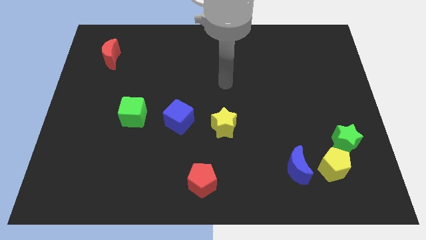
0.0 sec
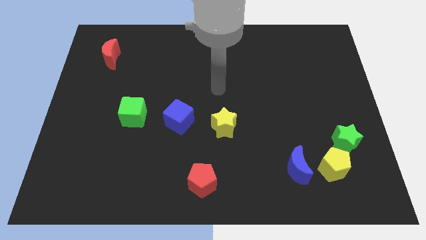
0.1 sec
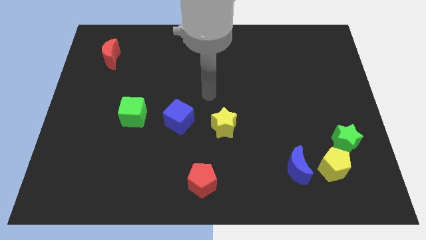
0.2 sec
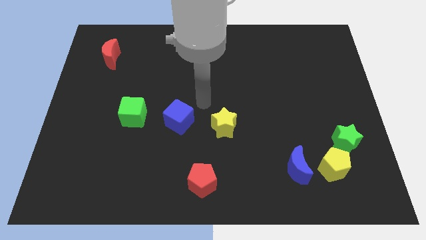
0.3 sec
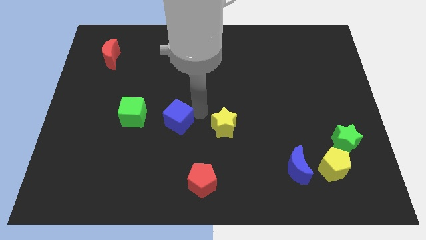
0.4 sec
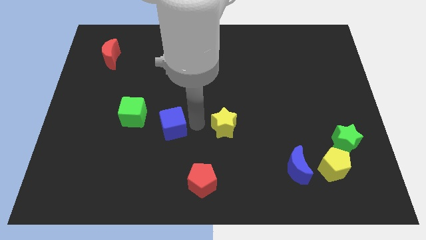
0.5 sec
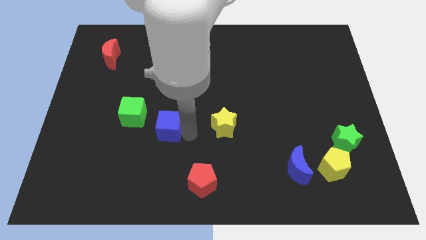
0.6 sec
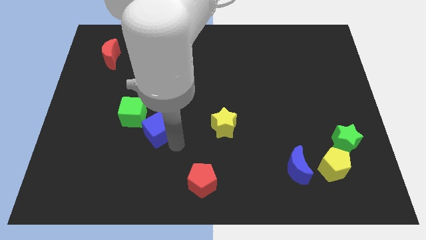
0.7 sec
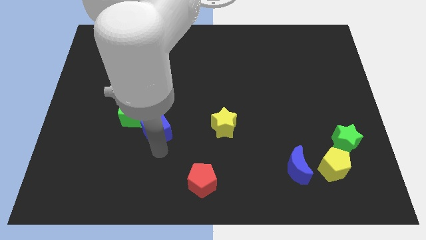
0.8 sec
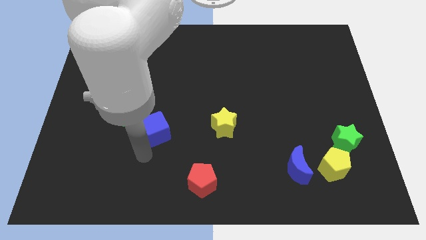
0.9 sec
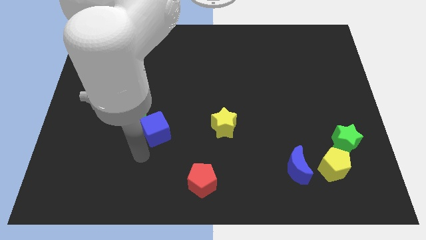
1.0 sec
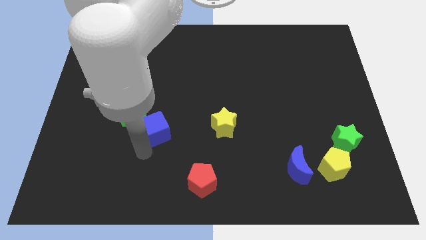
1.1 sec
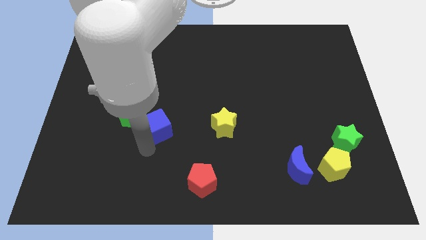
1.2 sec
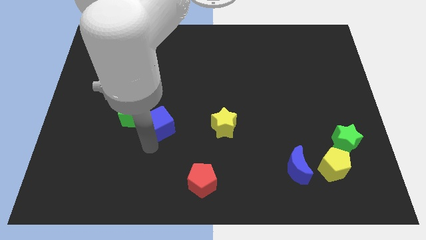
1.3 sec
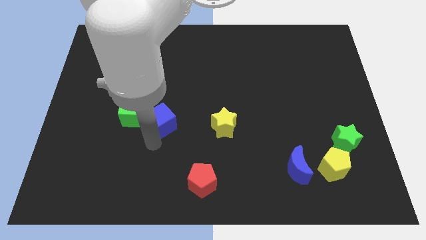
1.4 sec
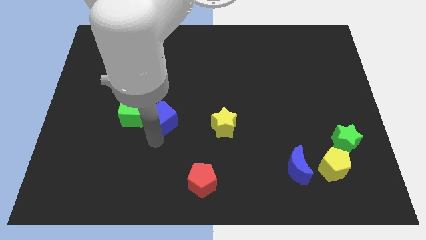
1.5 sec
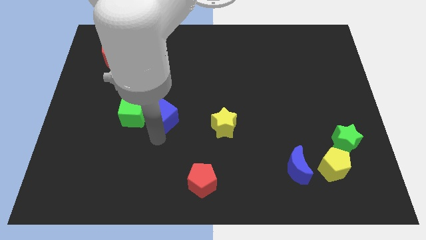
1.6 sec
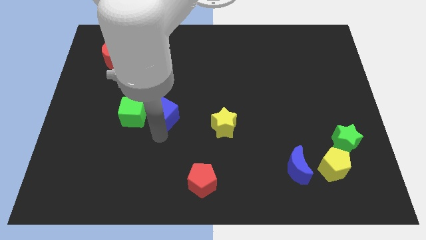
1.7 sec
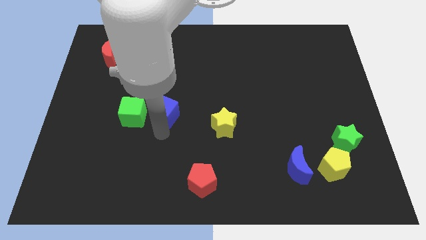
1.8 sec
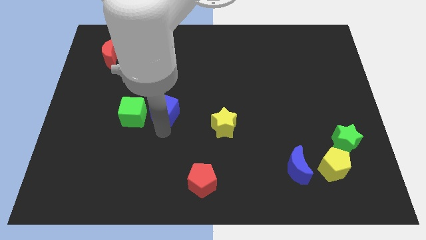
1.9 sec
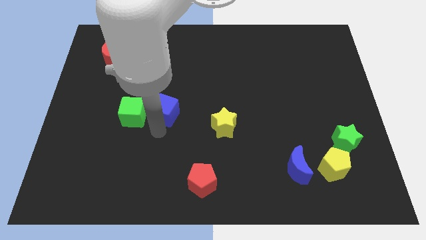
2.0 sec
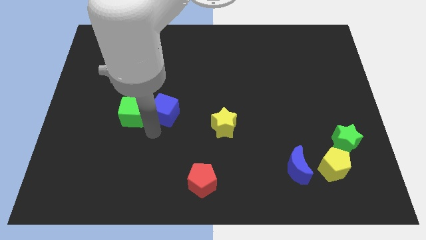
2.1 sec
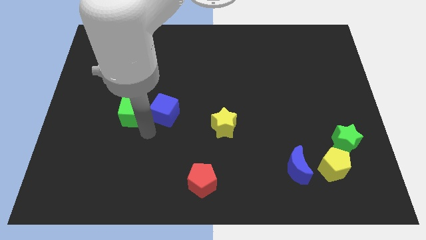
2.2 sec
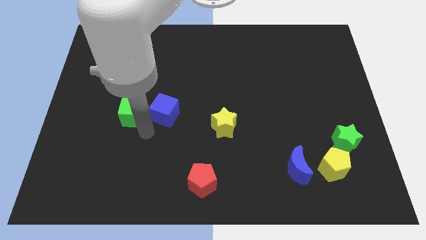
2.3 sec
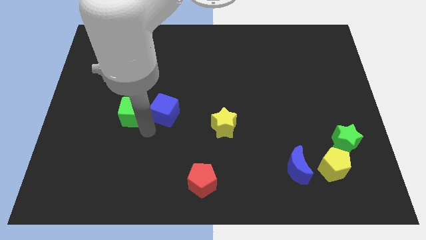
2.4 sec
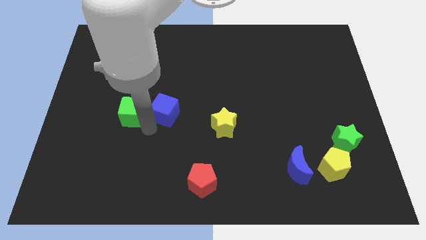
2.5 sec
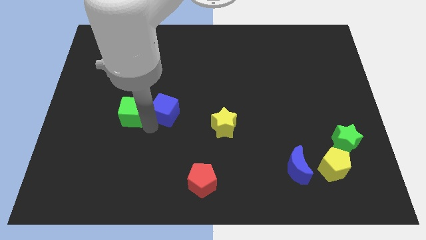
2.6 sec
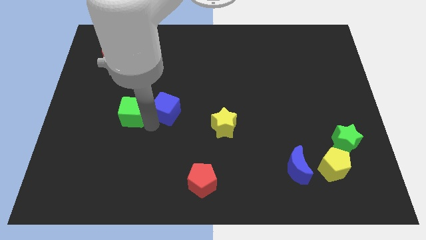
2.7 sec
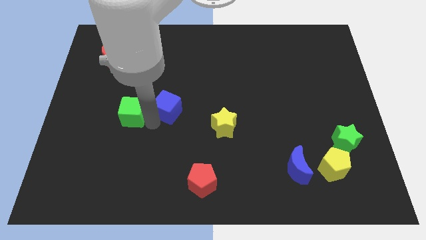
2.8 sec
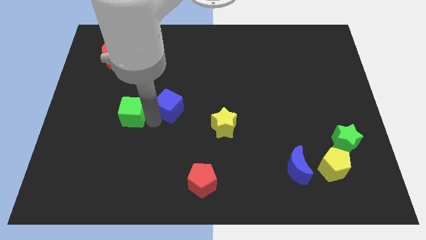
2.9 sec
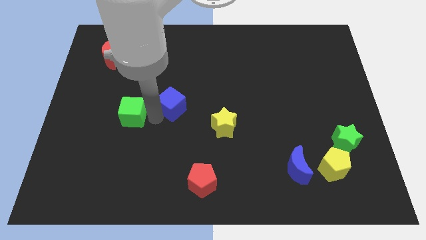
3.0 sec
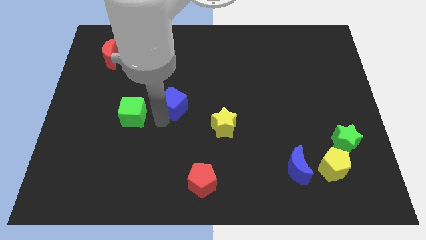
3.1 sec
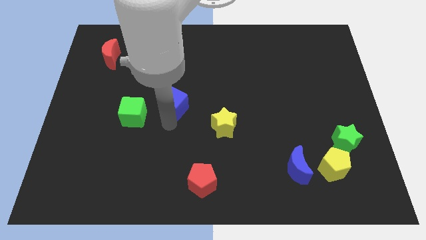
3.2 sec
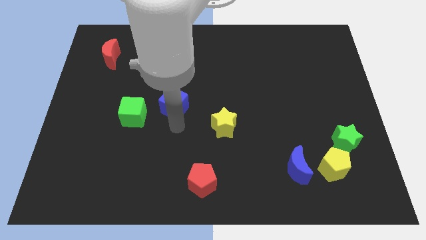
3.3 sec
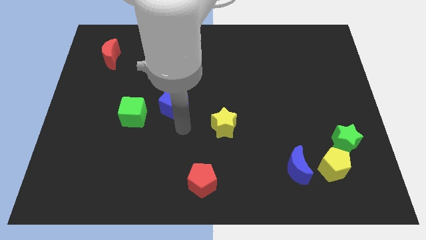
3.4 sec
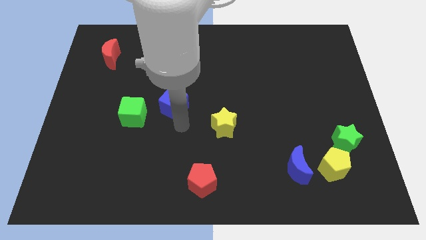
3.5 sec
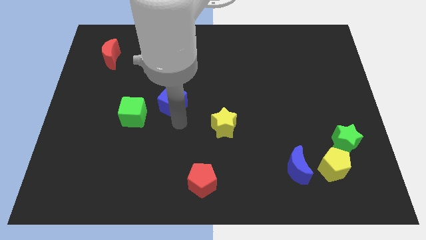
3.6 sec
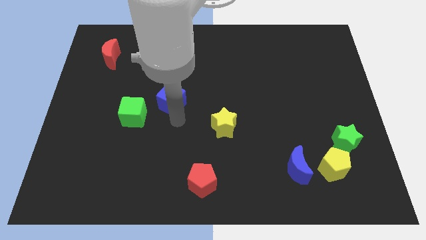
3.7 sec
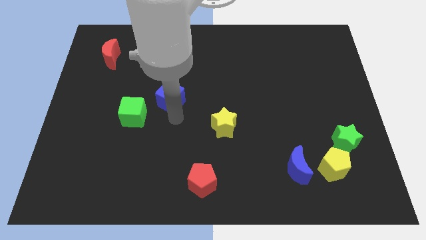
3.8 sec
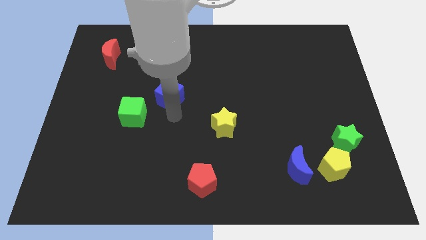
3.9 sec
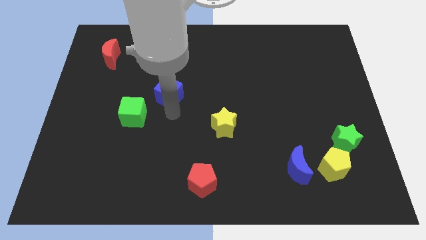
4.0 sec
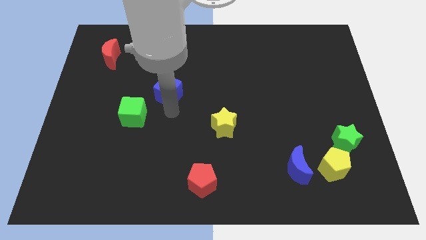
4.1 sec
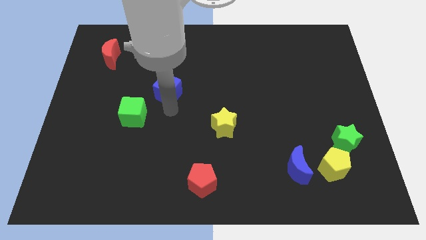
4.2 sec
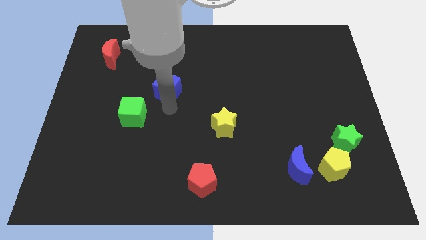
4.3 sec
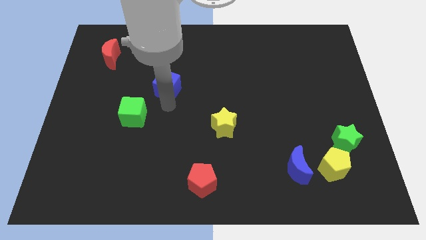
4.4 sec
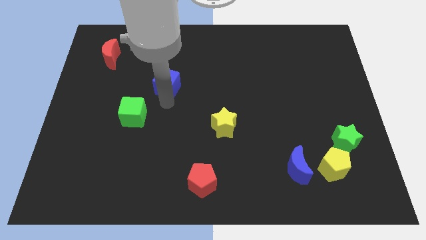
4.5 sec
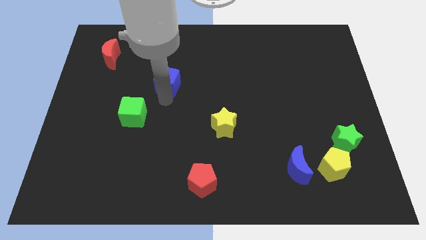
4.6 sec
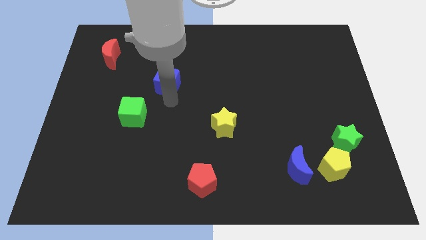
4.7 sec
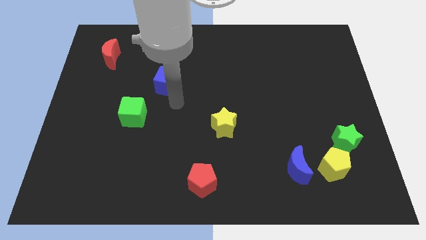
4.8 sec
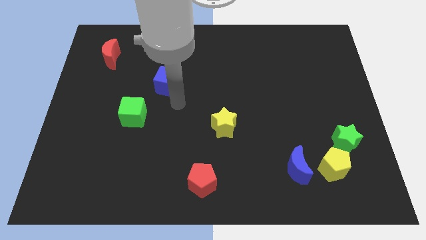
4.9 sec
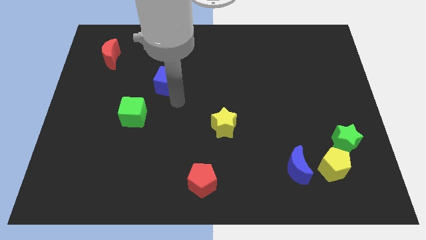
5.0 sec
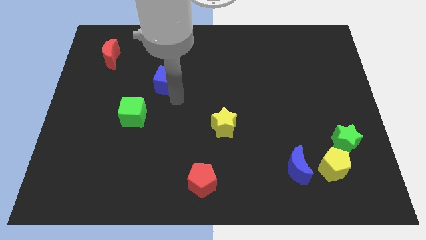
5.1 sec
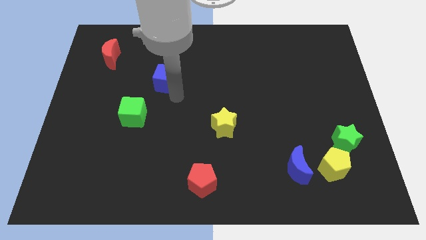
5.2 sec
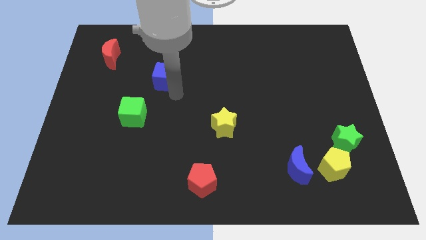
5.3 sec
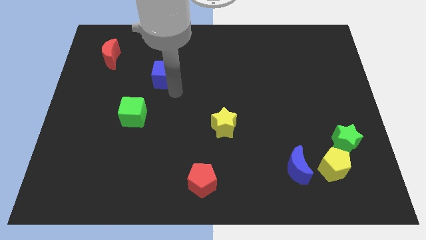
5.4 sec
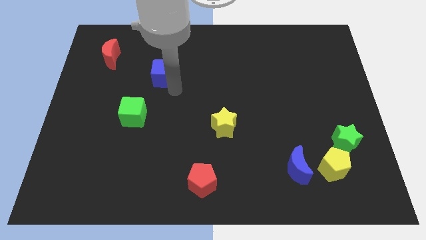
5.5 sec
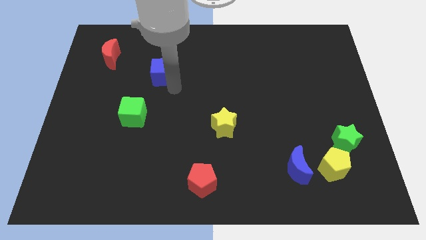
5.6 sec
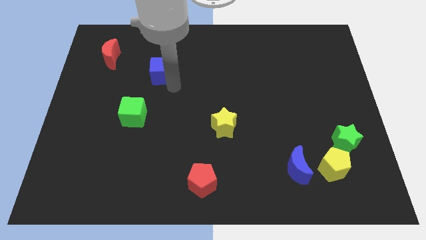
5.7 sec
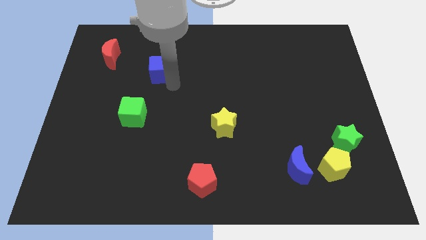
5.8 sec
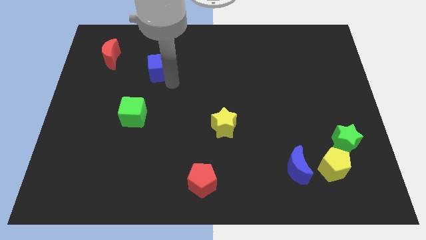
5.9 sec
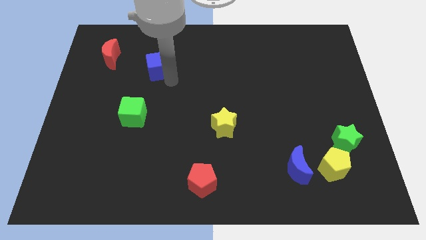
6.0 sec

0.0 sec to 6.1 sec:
move the blue cube right of the red moon

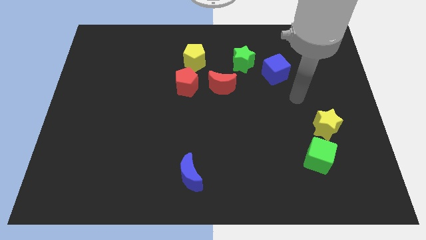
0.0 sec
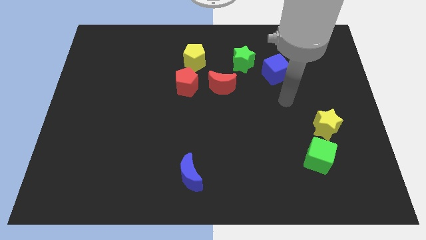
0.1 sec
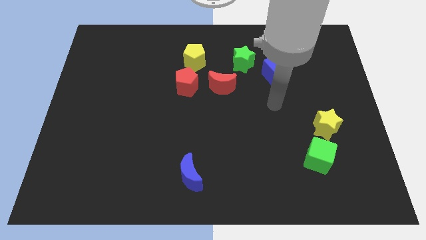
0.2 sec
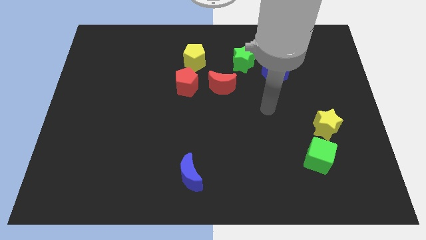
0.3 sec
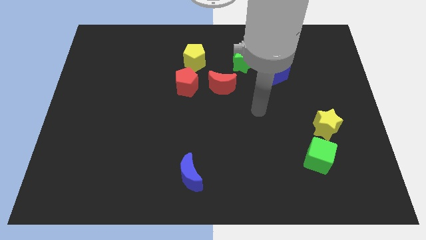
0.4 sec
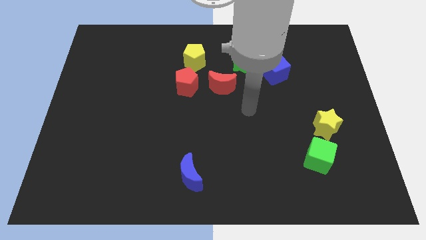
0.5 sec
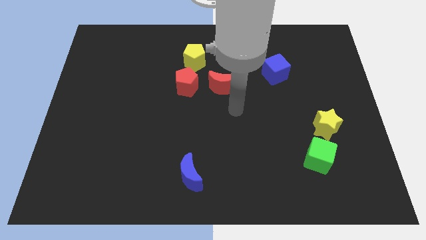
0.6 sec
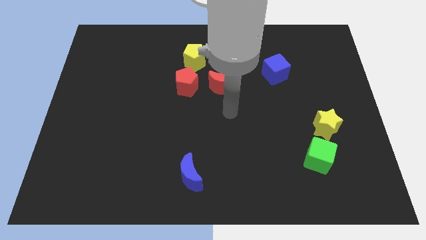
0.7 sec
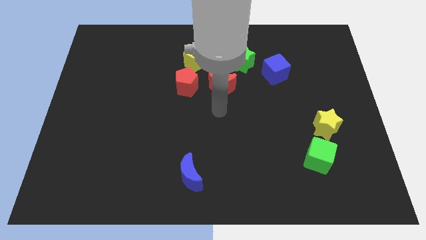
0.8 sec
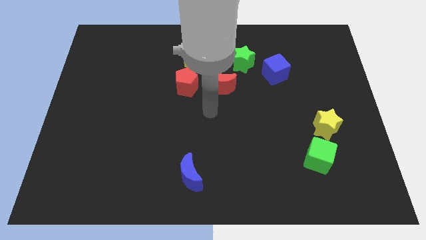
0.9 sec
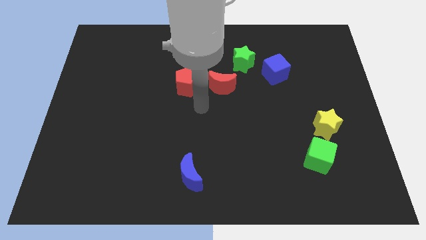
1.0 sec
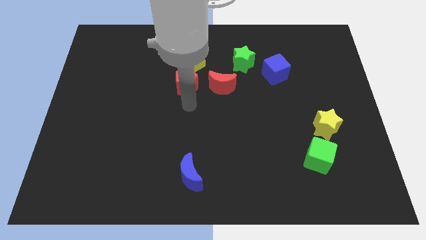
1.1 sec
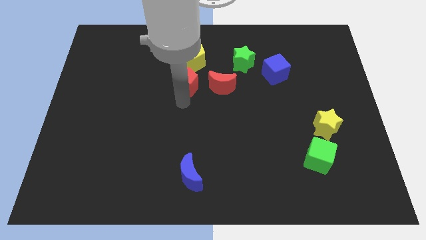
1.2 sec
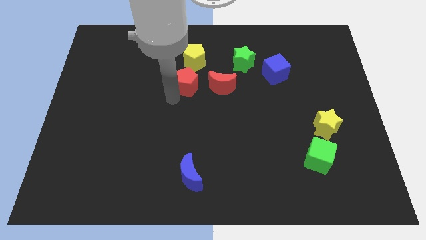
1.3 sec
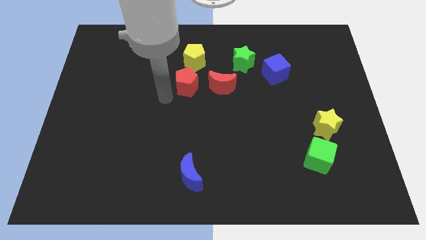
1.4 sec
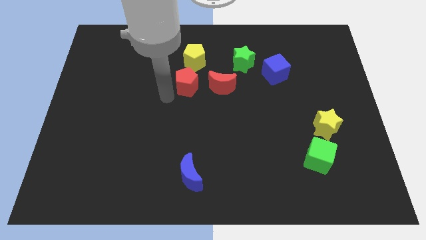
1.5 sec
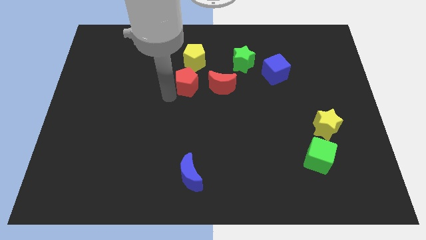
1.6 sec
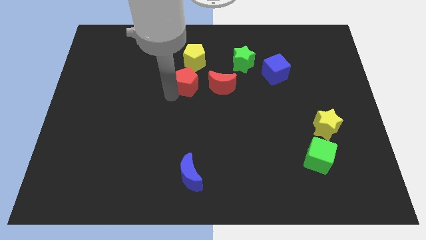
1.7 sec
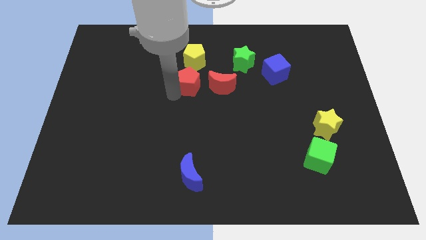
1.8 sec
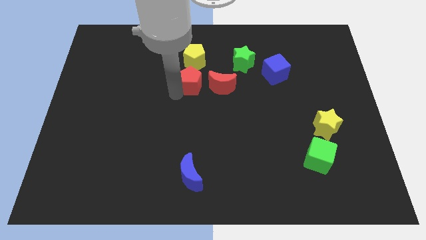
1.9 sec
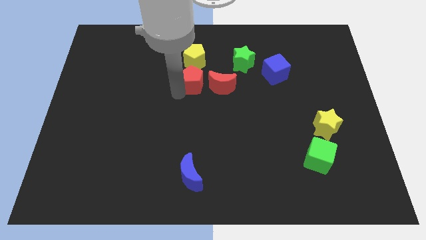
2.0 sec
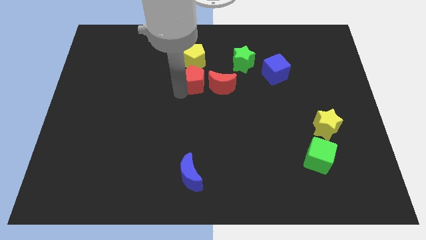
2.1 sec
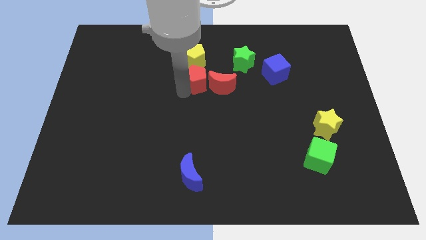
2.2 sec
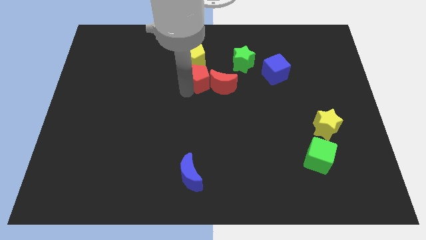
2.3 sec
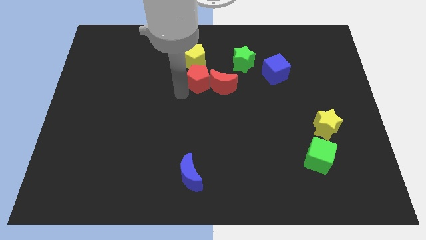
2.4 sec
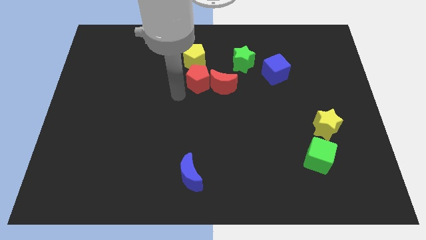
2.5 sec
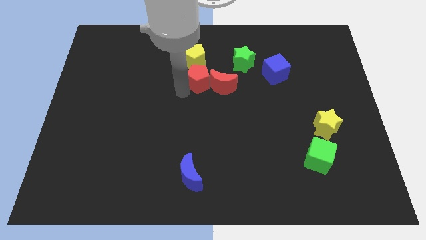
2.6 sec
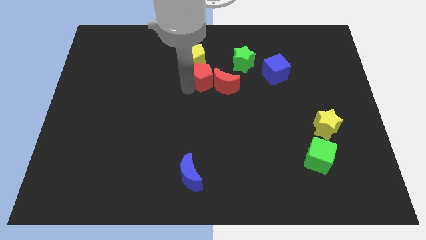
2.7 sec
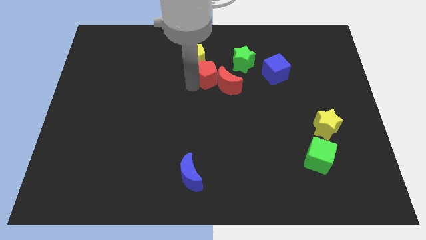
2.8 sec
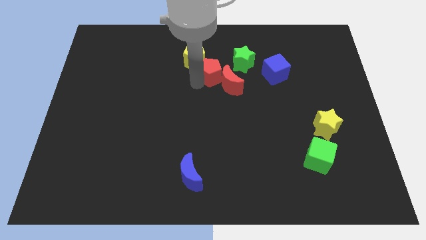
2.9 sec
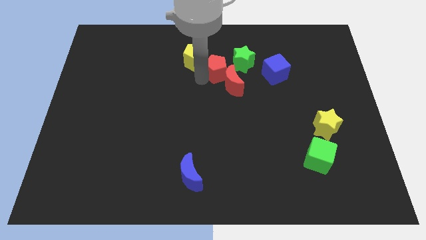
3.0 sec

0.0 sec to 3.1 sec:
put the red pentagon to the left side of the blue cube
